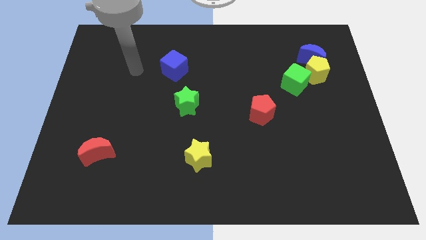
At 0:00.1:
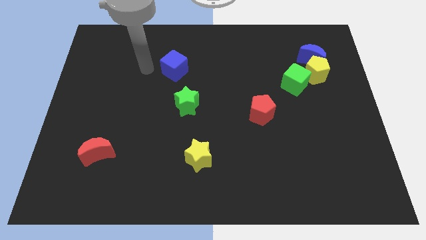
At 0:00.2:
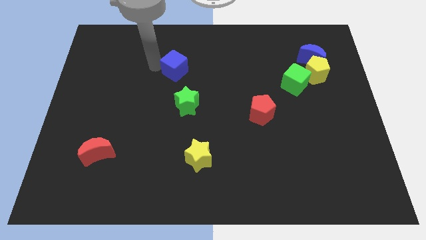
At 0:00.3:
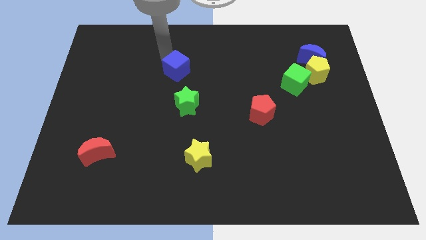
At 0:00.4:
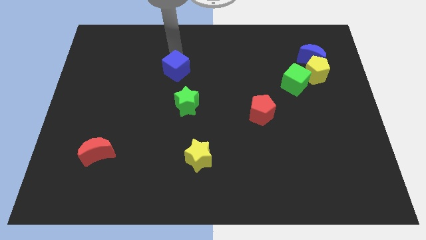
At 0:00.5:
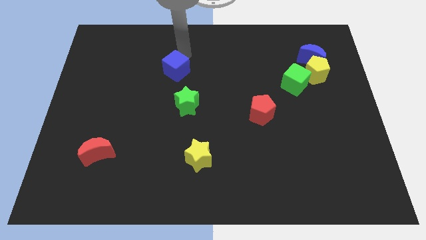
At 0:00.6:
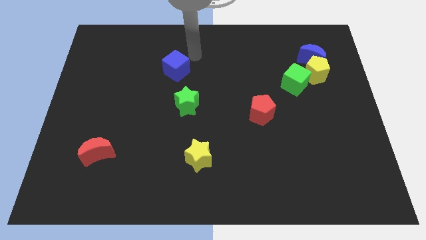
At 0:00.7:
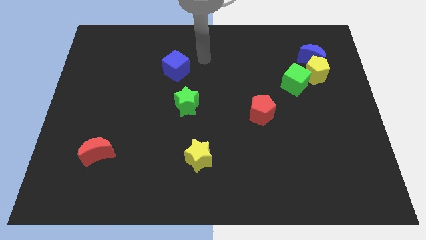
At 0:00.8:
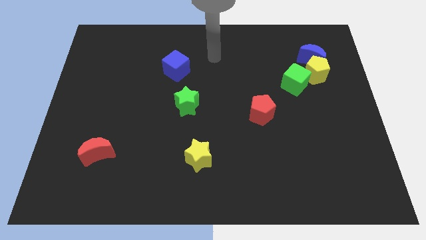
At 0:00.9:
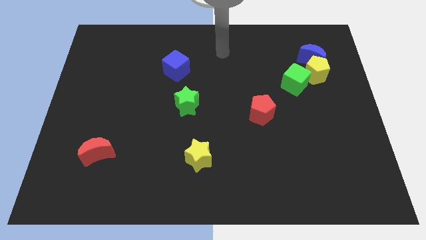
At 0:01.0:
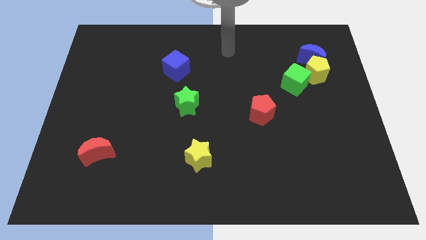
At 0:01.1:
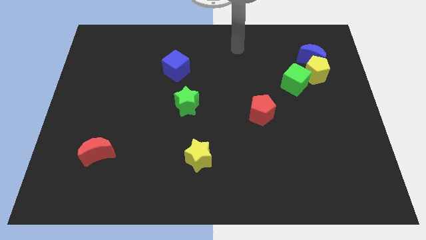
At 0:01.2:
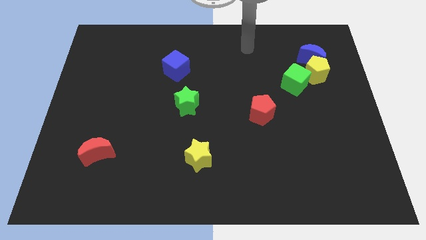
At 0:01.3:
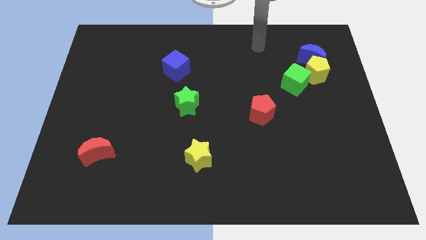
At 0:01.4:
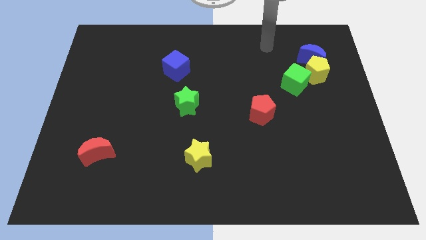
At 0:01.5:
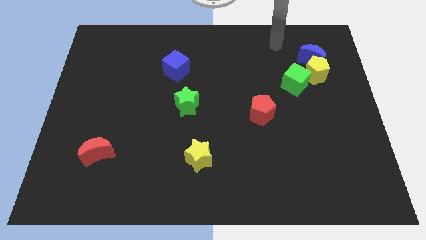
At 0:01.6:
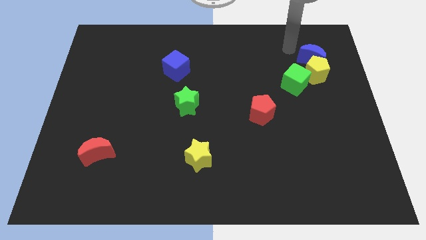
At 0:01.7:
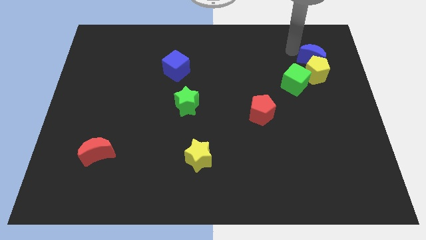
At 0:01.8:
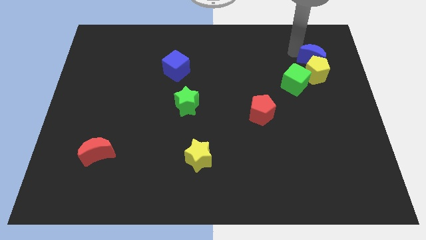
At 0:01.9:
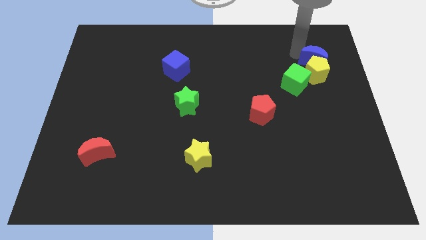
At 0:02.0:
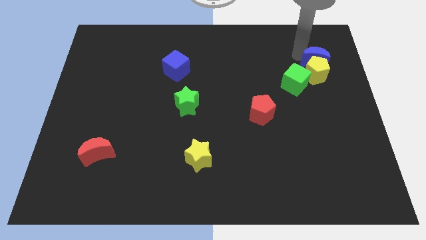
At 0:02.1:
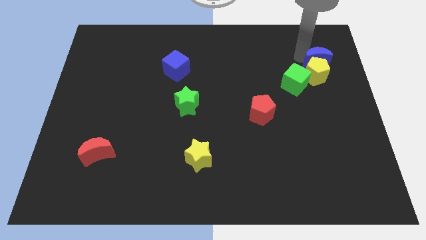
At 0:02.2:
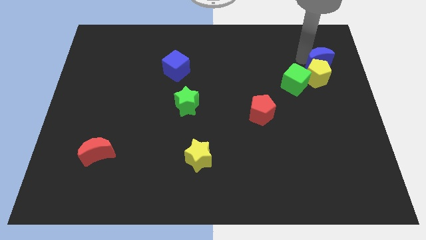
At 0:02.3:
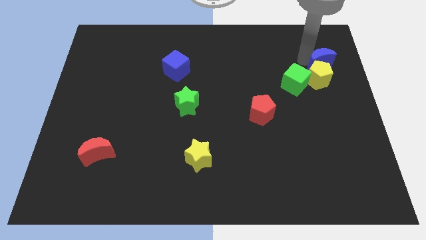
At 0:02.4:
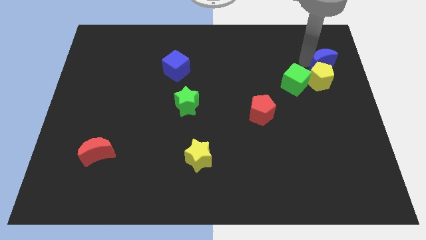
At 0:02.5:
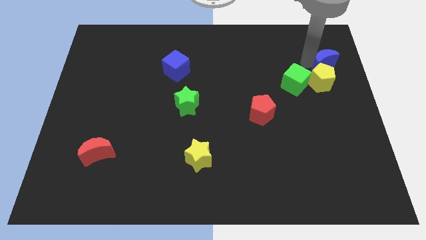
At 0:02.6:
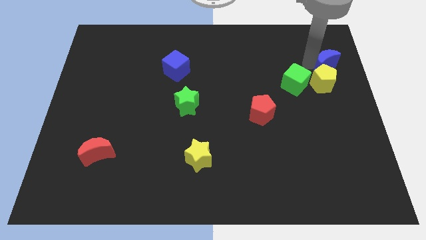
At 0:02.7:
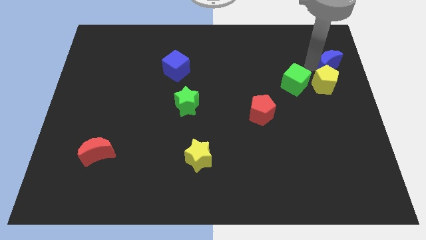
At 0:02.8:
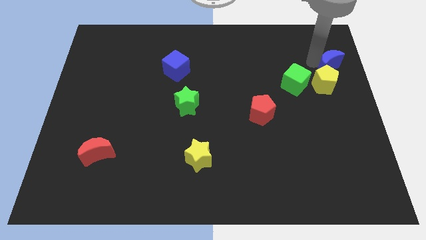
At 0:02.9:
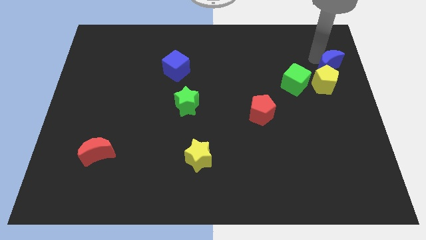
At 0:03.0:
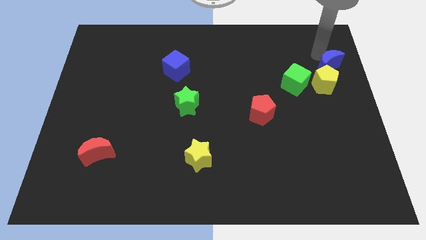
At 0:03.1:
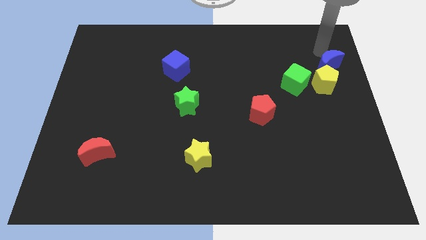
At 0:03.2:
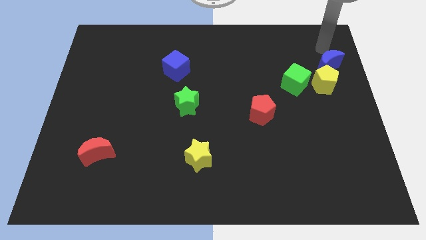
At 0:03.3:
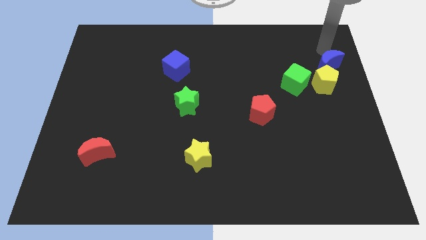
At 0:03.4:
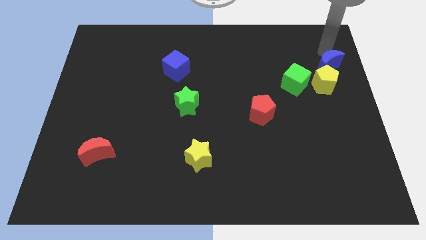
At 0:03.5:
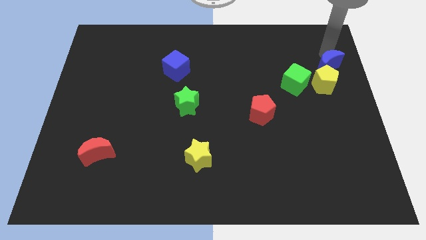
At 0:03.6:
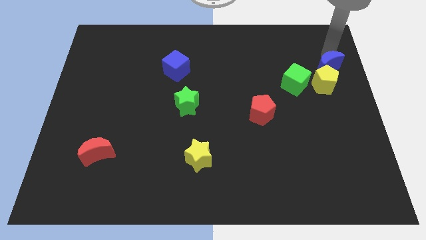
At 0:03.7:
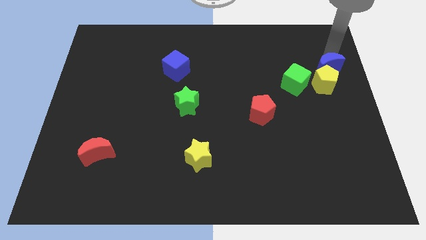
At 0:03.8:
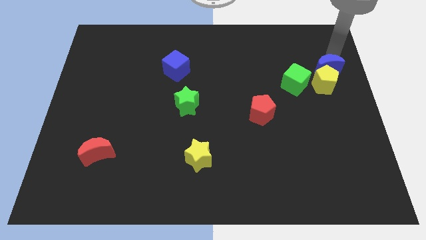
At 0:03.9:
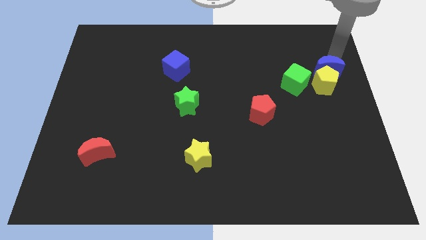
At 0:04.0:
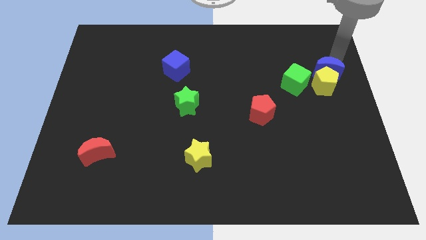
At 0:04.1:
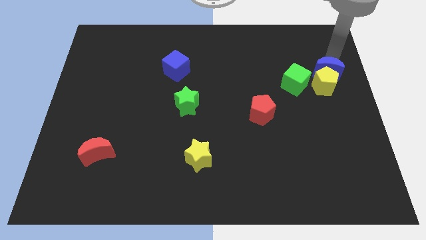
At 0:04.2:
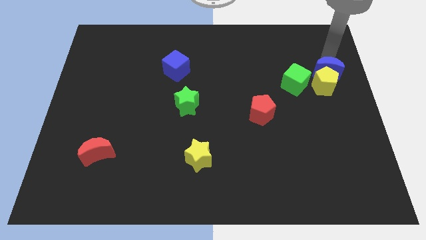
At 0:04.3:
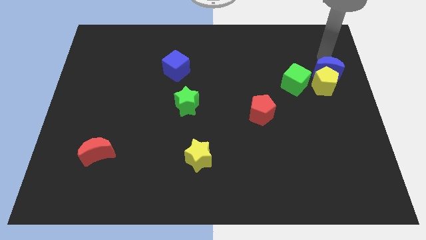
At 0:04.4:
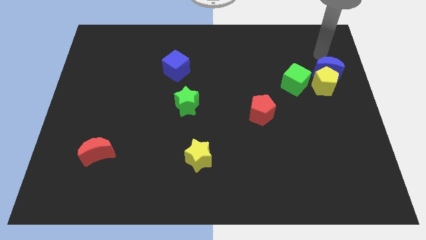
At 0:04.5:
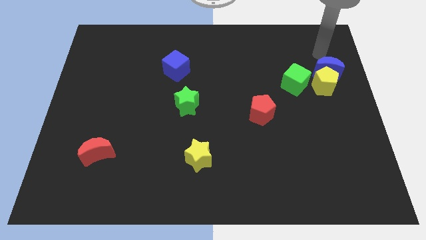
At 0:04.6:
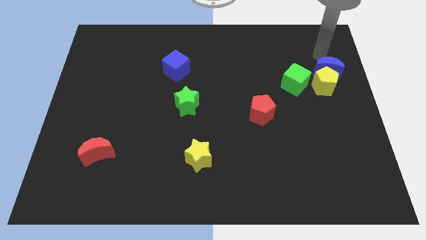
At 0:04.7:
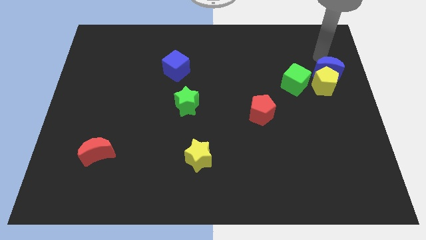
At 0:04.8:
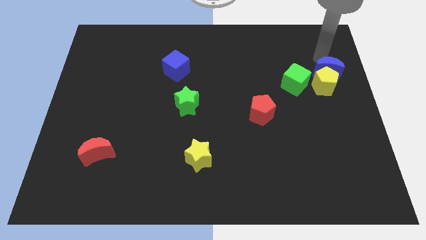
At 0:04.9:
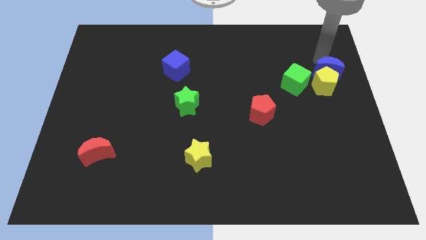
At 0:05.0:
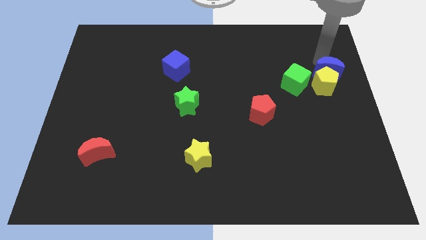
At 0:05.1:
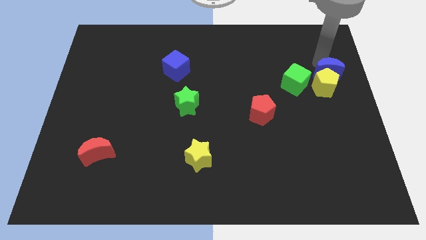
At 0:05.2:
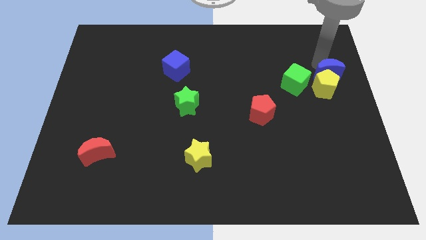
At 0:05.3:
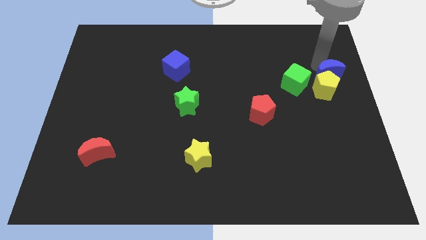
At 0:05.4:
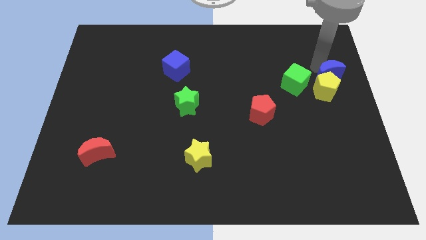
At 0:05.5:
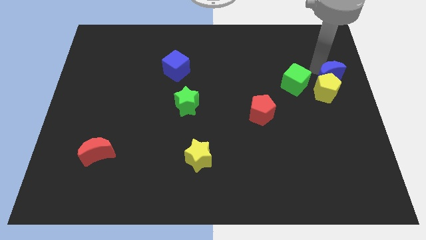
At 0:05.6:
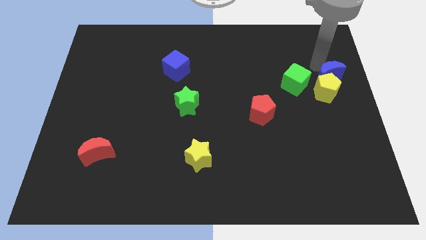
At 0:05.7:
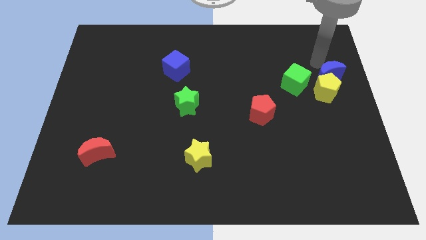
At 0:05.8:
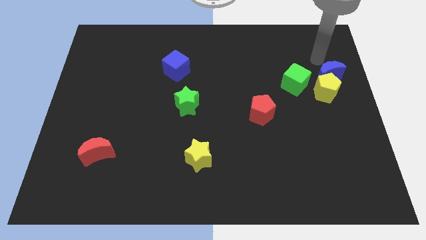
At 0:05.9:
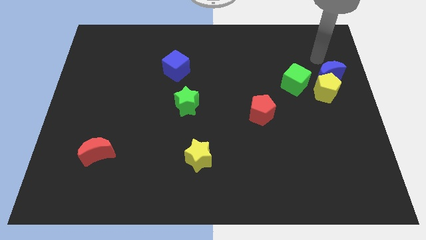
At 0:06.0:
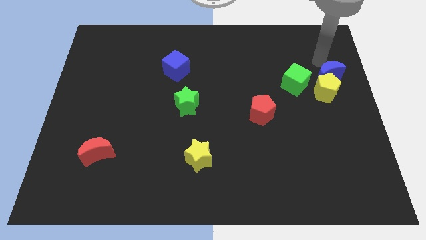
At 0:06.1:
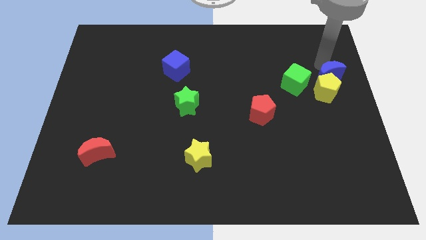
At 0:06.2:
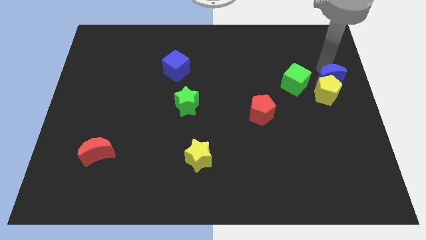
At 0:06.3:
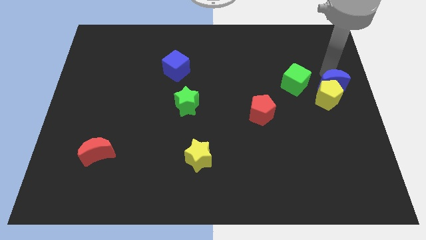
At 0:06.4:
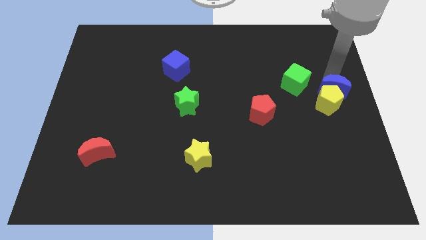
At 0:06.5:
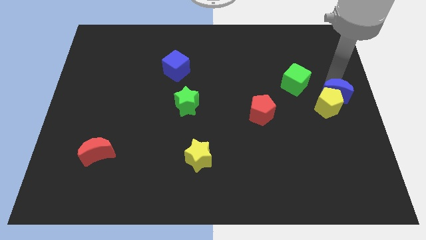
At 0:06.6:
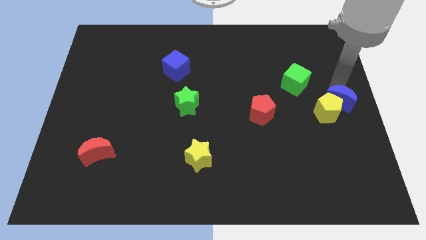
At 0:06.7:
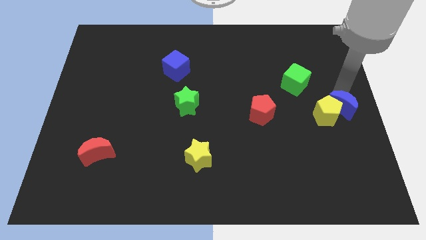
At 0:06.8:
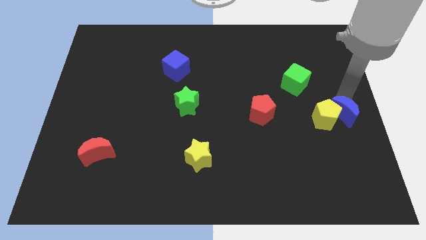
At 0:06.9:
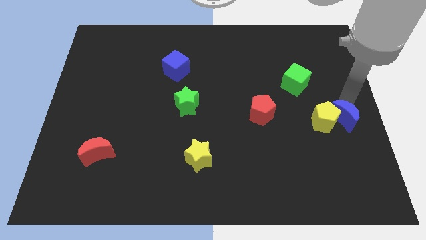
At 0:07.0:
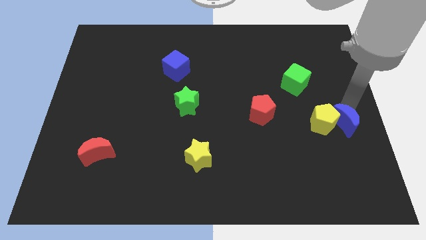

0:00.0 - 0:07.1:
slide the blue moon down

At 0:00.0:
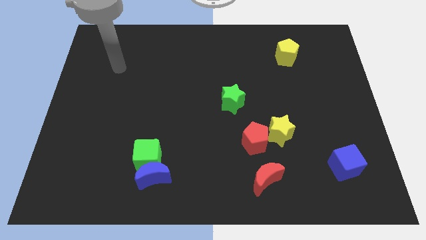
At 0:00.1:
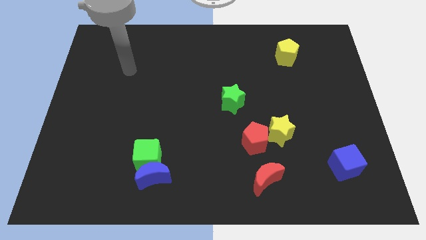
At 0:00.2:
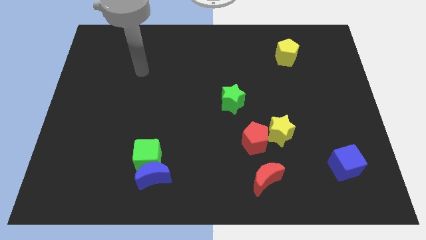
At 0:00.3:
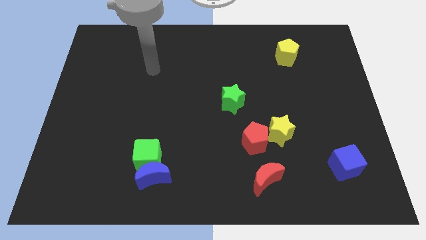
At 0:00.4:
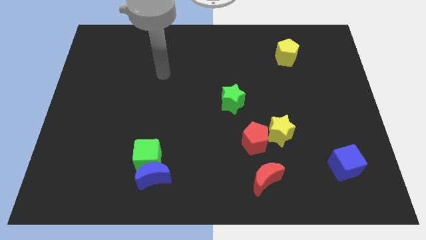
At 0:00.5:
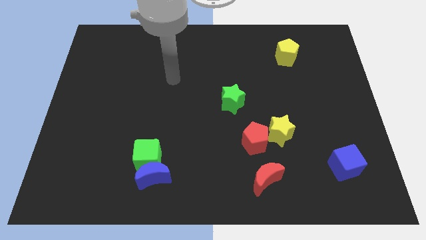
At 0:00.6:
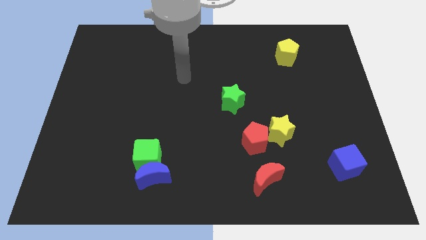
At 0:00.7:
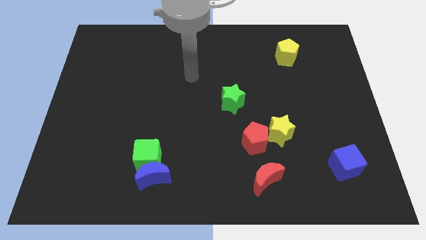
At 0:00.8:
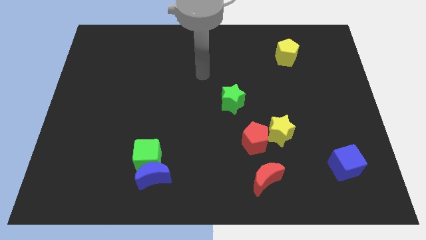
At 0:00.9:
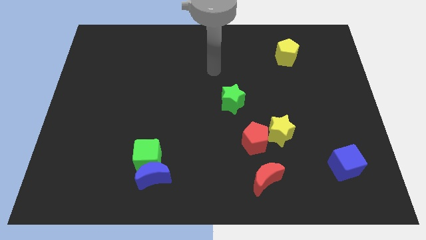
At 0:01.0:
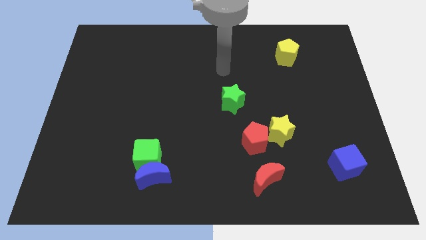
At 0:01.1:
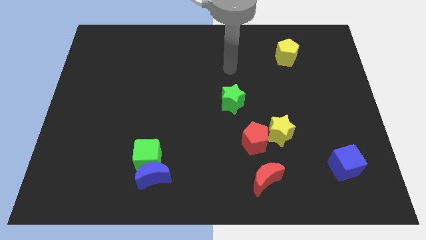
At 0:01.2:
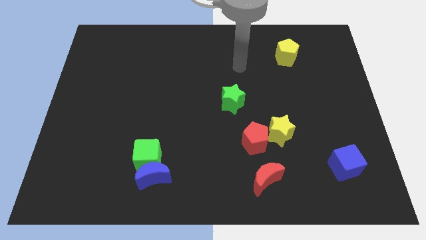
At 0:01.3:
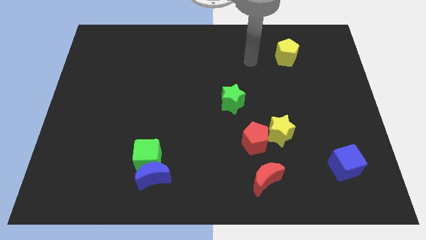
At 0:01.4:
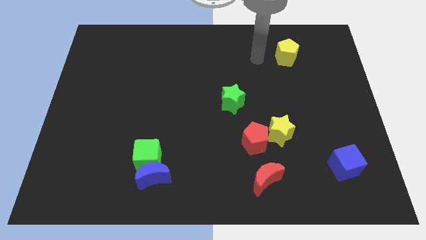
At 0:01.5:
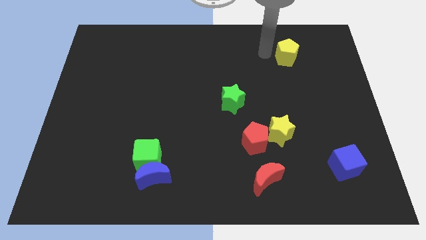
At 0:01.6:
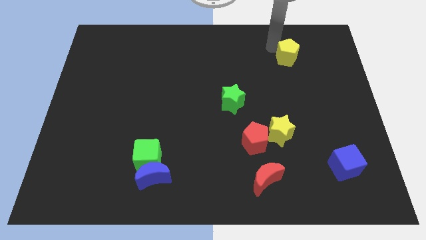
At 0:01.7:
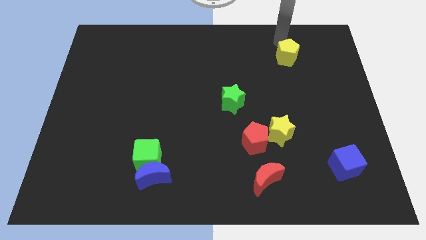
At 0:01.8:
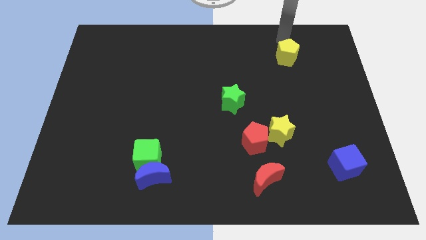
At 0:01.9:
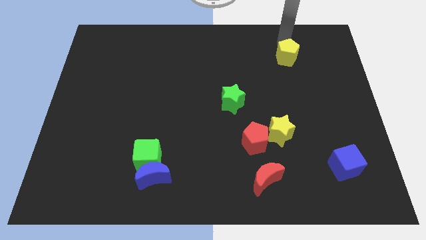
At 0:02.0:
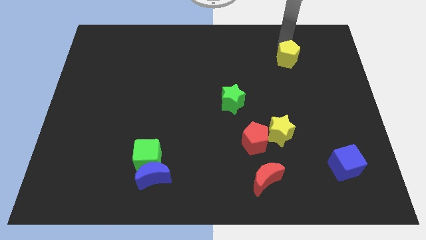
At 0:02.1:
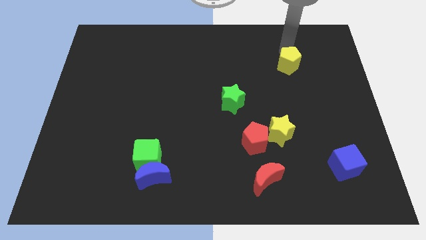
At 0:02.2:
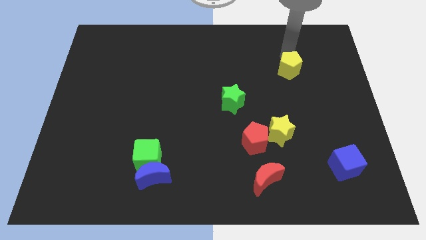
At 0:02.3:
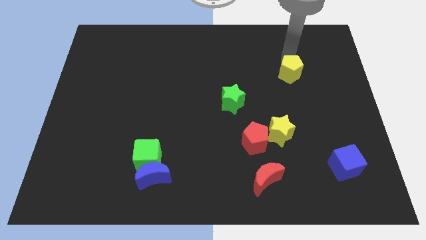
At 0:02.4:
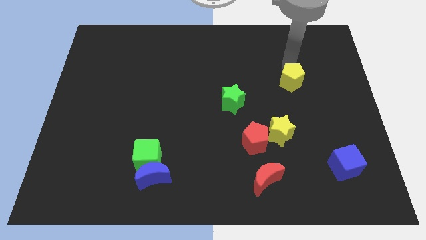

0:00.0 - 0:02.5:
push the yellow pentagon downwards a little bit
